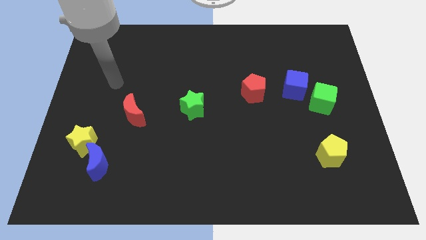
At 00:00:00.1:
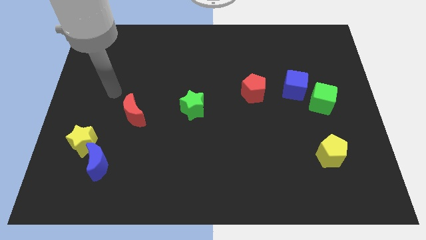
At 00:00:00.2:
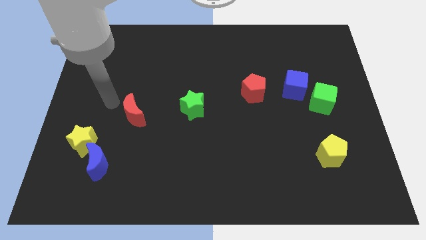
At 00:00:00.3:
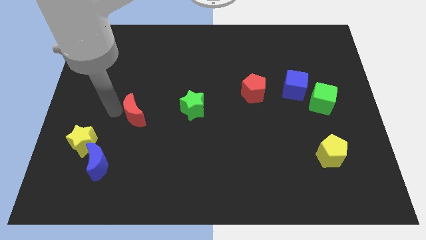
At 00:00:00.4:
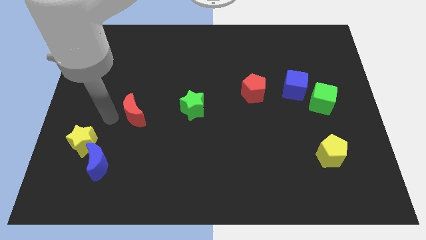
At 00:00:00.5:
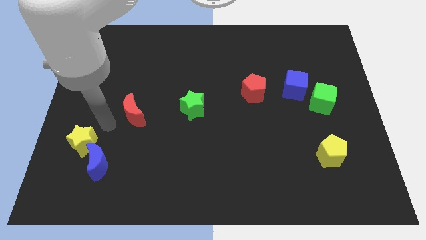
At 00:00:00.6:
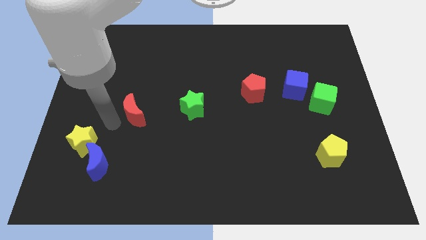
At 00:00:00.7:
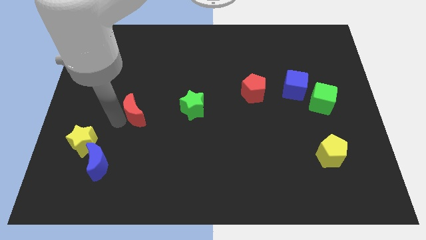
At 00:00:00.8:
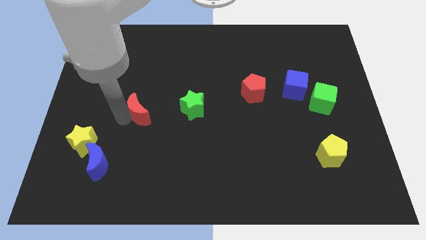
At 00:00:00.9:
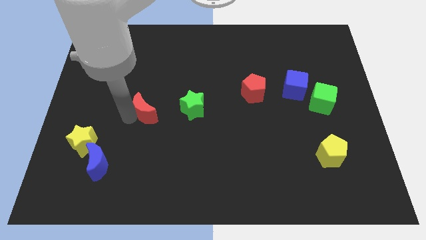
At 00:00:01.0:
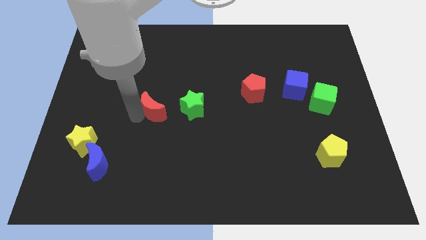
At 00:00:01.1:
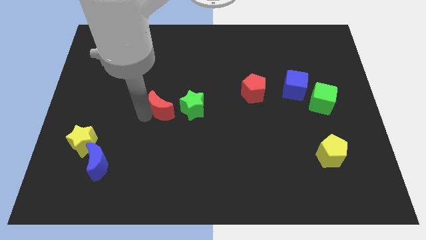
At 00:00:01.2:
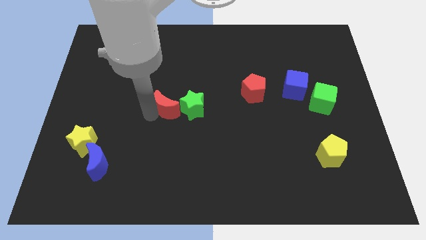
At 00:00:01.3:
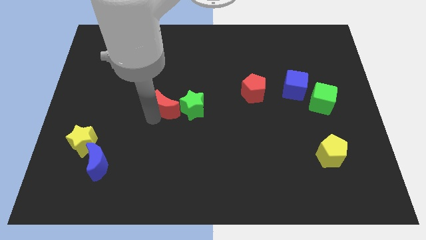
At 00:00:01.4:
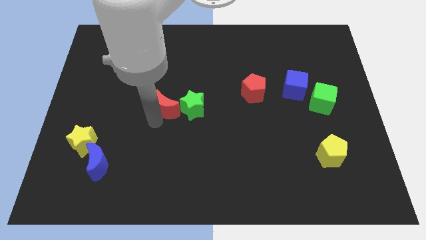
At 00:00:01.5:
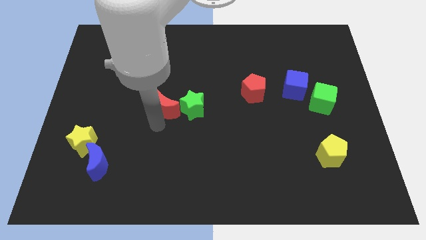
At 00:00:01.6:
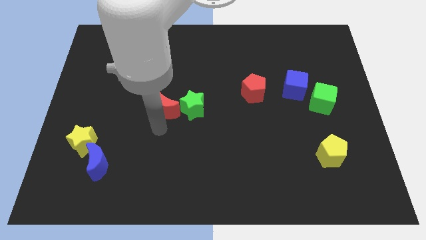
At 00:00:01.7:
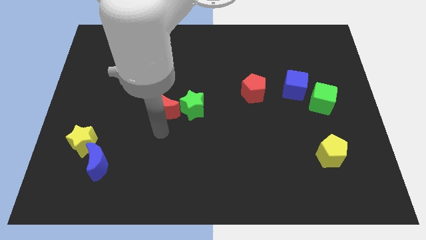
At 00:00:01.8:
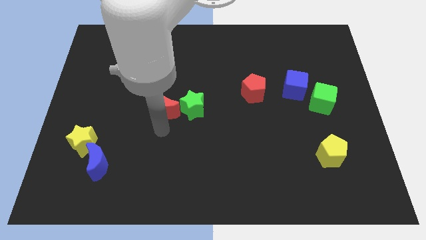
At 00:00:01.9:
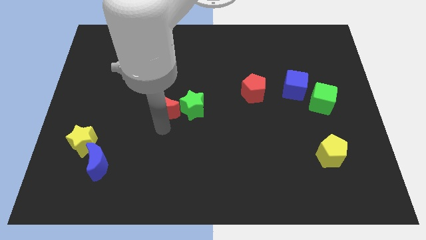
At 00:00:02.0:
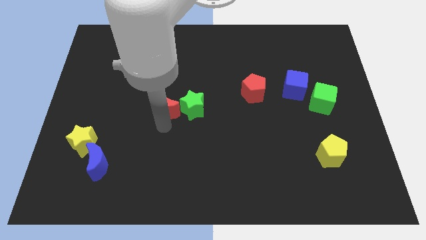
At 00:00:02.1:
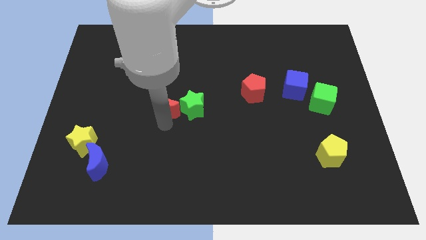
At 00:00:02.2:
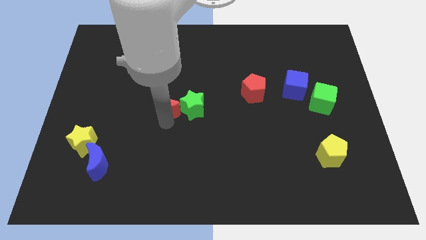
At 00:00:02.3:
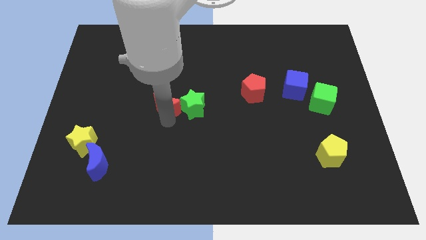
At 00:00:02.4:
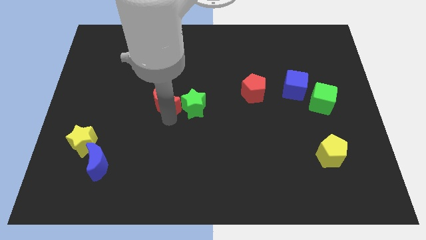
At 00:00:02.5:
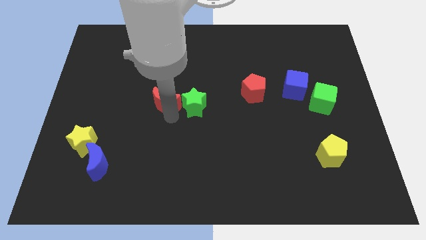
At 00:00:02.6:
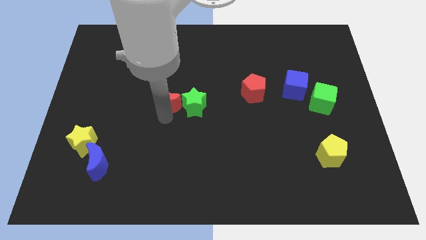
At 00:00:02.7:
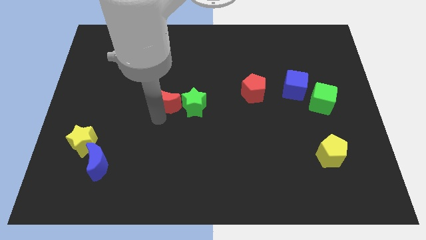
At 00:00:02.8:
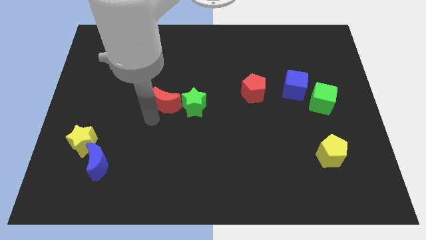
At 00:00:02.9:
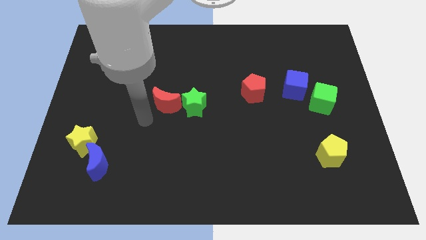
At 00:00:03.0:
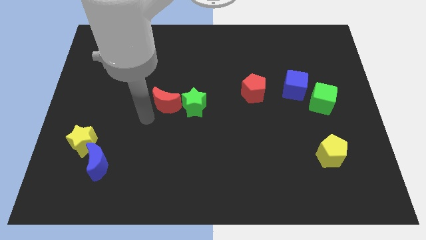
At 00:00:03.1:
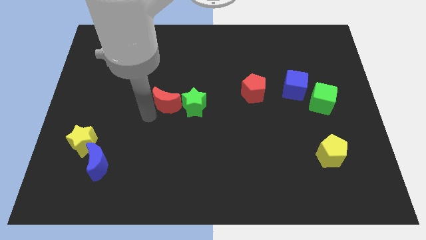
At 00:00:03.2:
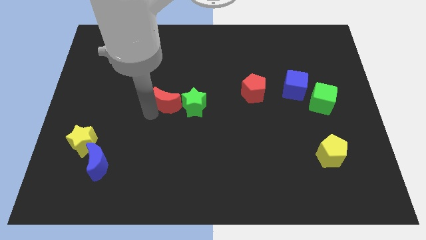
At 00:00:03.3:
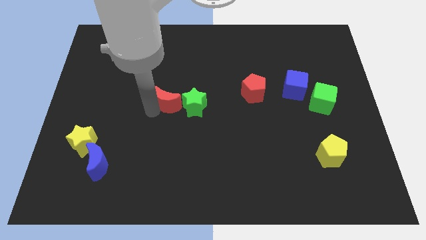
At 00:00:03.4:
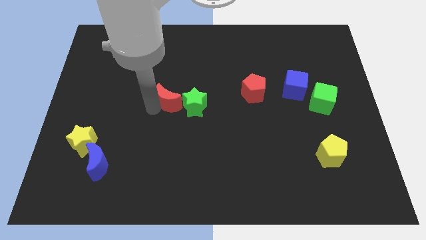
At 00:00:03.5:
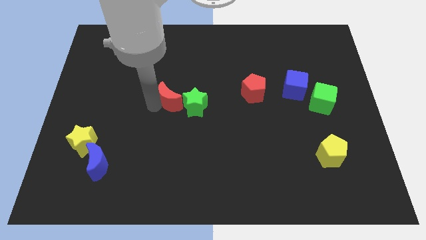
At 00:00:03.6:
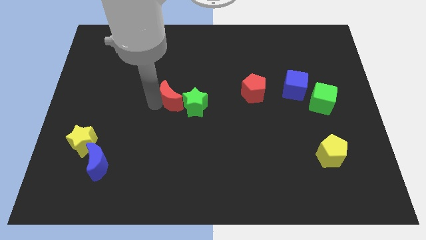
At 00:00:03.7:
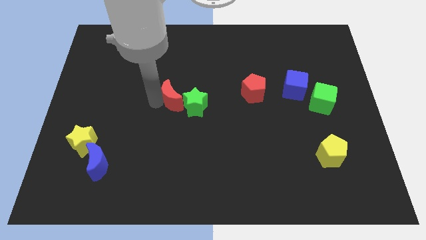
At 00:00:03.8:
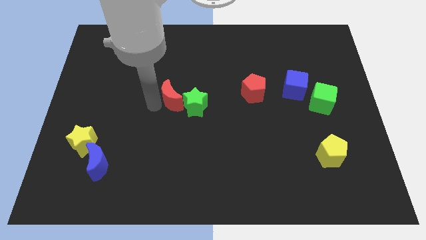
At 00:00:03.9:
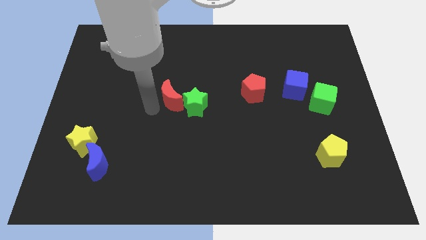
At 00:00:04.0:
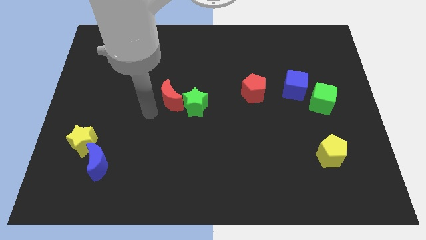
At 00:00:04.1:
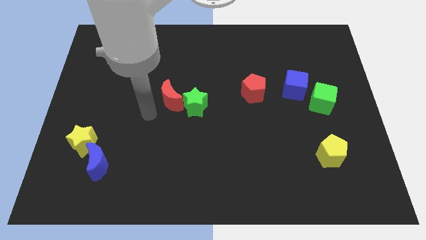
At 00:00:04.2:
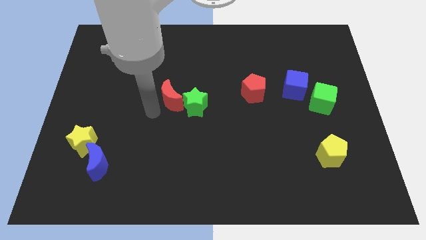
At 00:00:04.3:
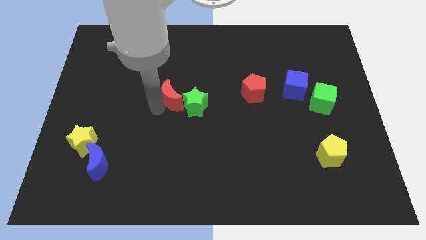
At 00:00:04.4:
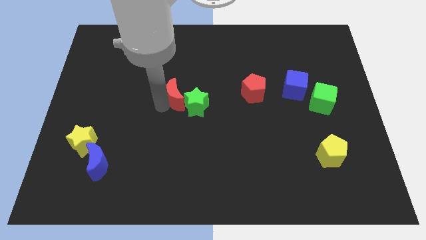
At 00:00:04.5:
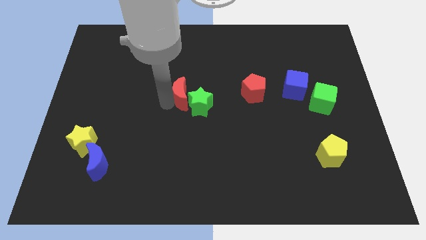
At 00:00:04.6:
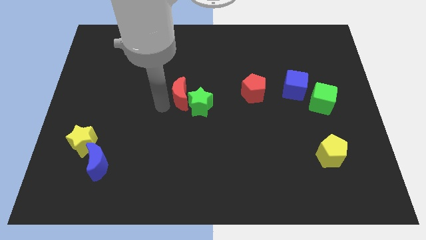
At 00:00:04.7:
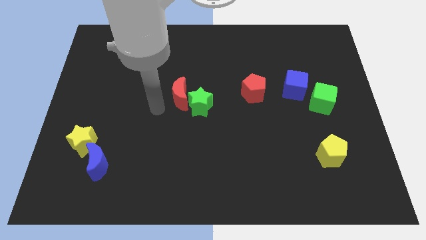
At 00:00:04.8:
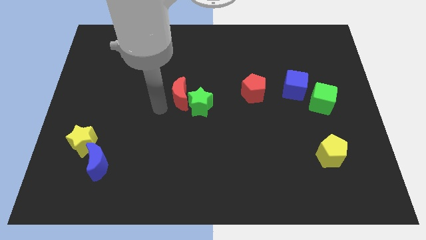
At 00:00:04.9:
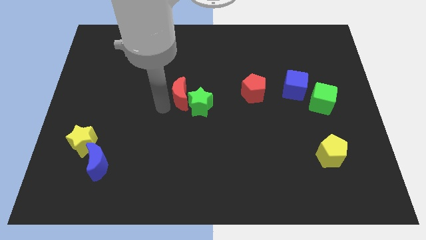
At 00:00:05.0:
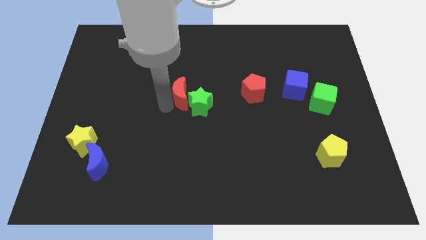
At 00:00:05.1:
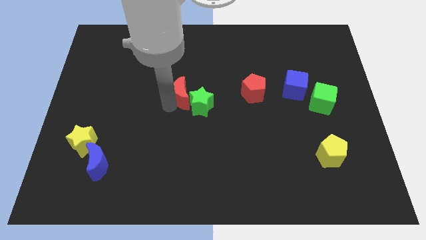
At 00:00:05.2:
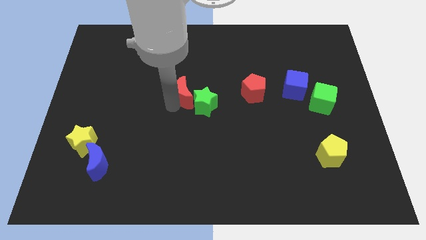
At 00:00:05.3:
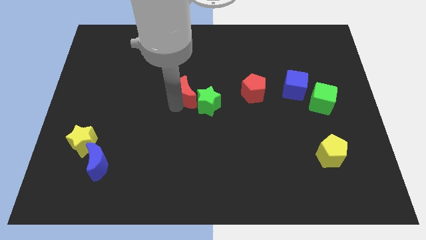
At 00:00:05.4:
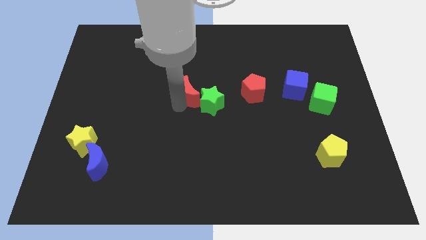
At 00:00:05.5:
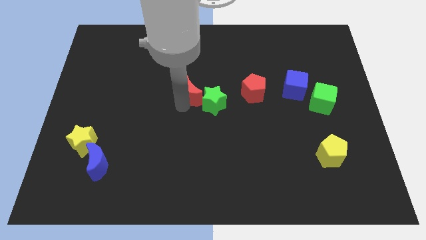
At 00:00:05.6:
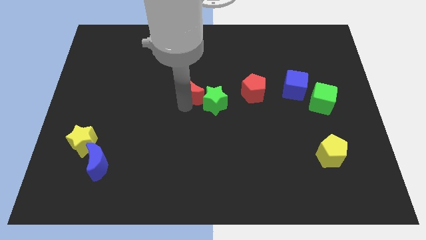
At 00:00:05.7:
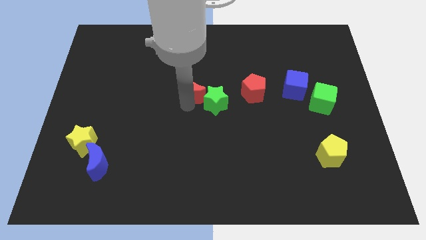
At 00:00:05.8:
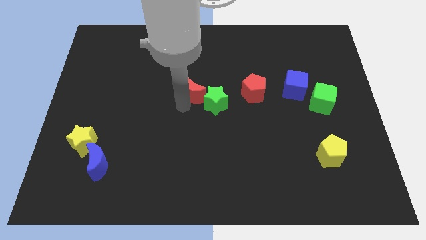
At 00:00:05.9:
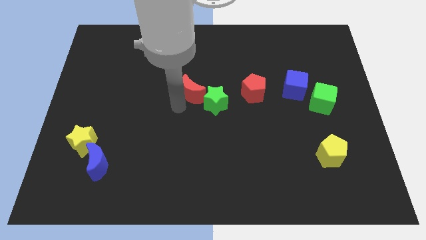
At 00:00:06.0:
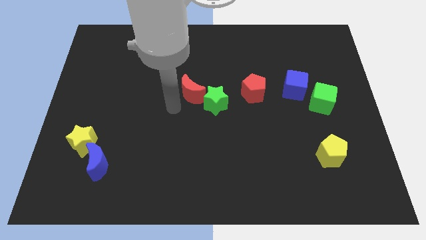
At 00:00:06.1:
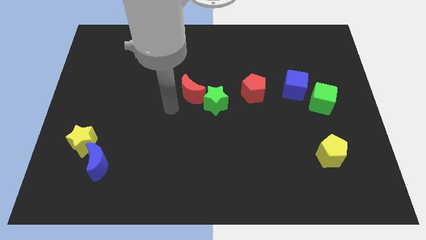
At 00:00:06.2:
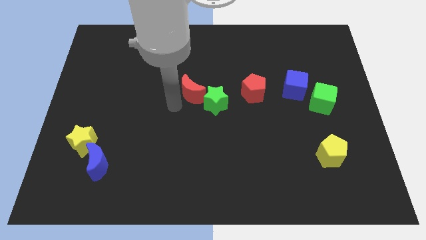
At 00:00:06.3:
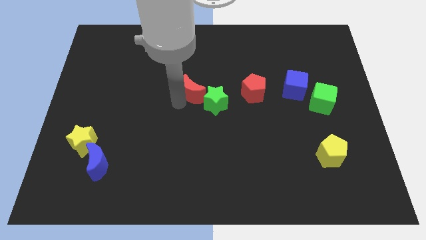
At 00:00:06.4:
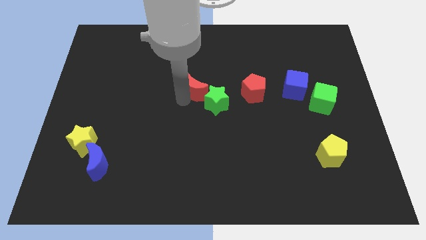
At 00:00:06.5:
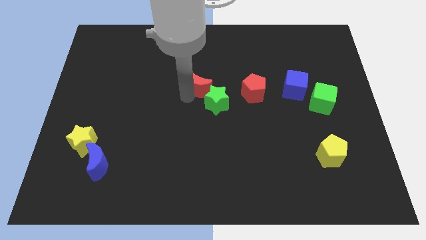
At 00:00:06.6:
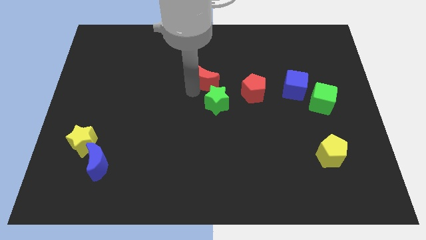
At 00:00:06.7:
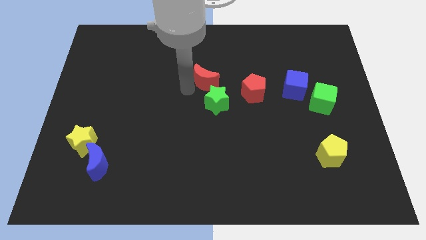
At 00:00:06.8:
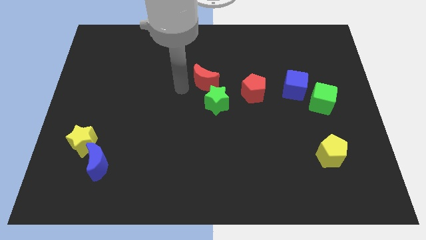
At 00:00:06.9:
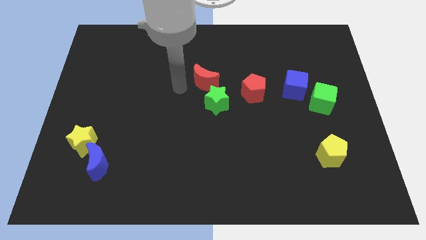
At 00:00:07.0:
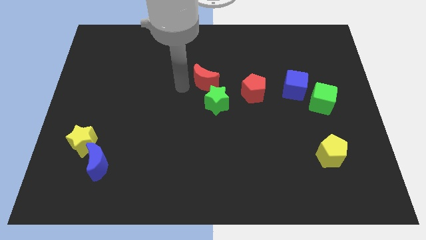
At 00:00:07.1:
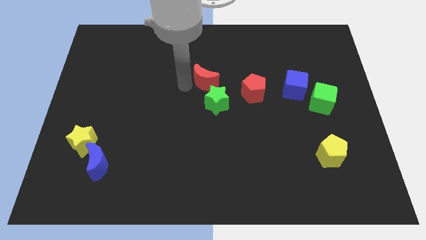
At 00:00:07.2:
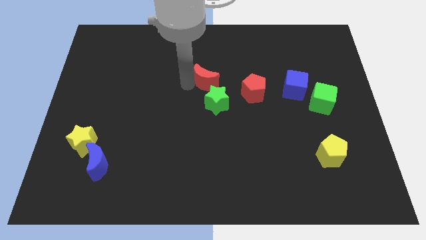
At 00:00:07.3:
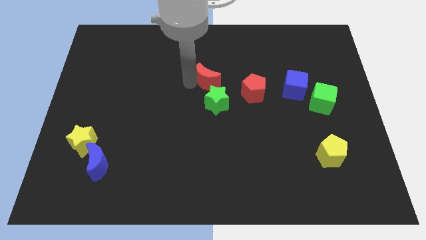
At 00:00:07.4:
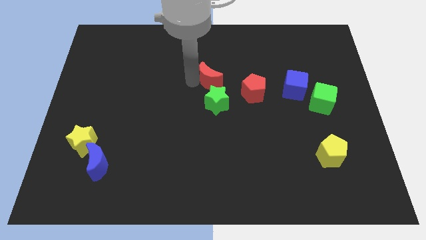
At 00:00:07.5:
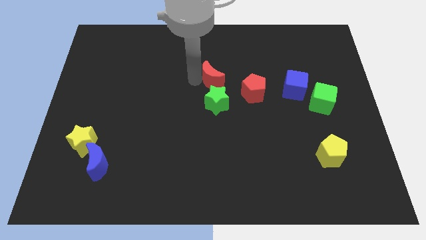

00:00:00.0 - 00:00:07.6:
slide the red moon to the top left of the red pentagon
